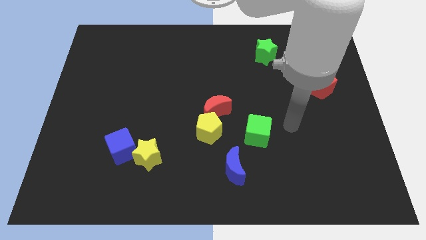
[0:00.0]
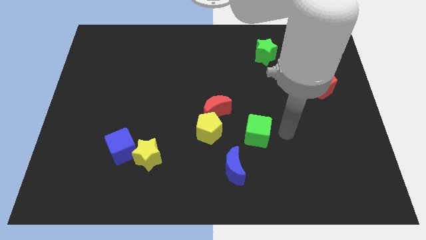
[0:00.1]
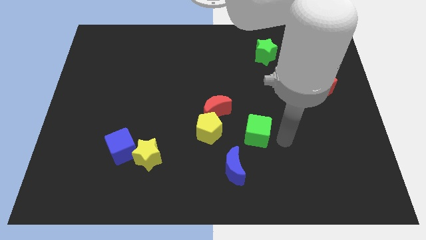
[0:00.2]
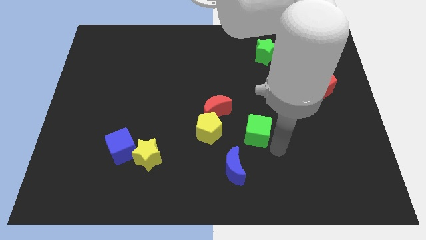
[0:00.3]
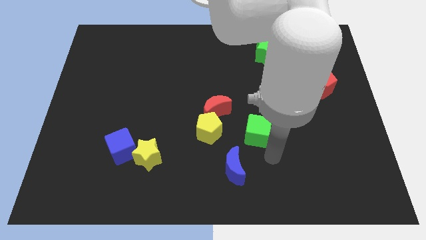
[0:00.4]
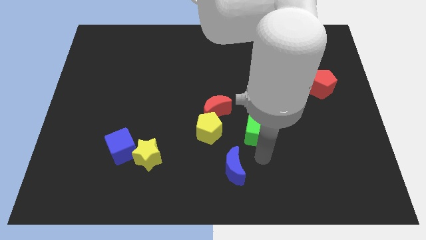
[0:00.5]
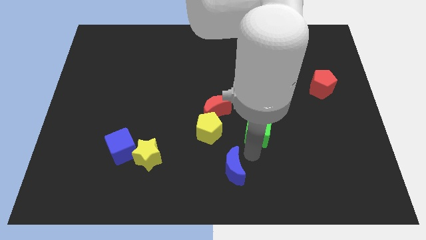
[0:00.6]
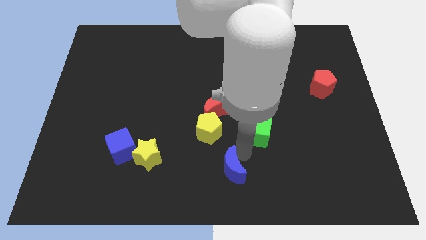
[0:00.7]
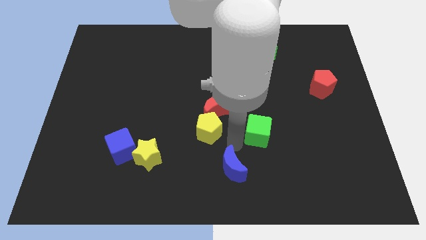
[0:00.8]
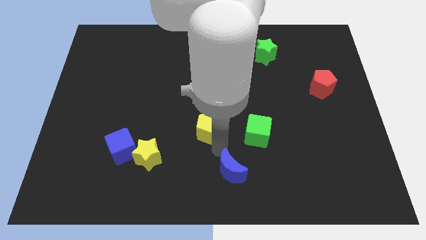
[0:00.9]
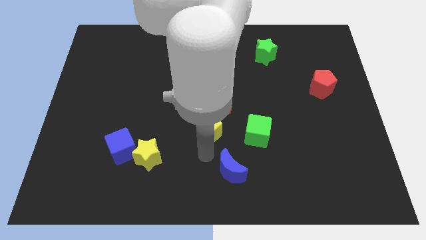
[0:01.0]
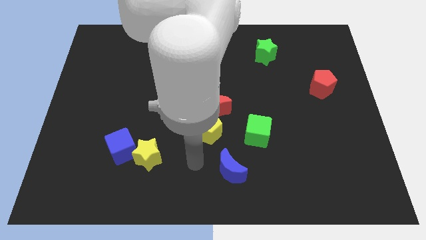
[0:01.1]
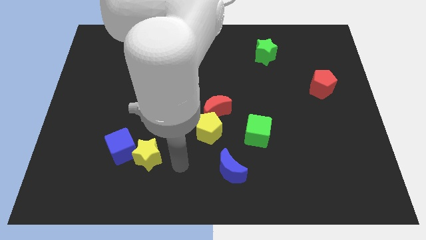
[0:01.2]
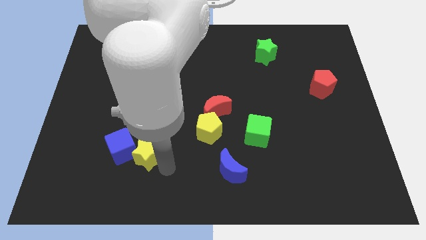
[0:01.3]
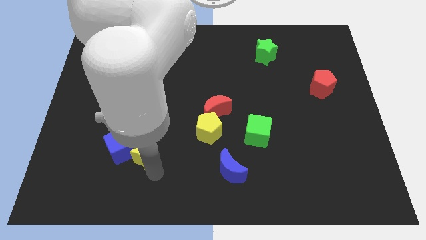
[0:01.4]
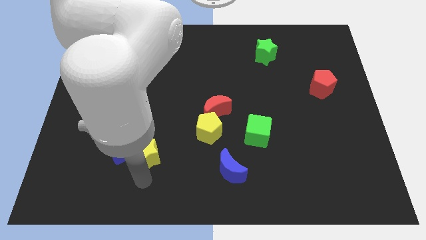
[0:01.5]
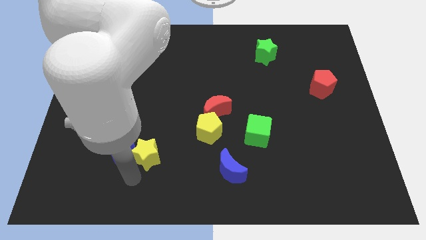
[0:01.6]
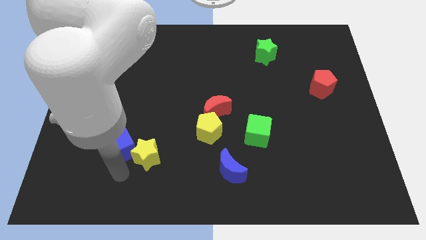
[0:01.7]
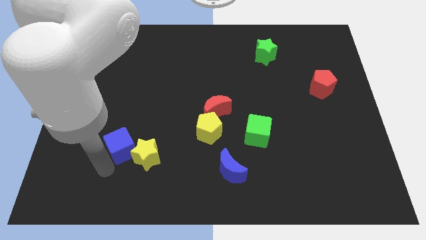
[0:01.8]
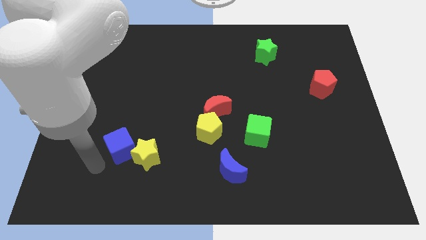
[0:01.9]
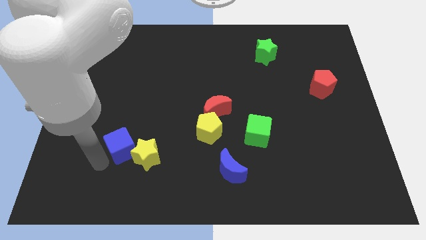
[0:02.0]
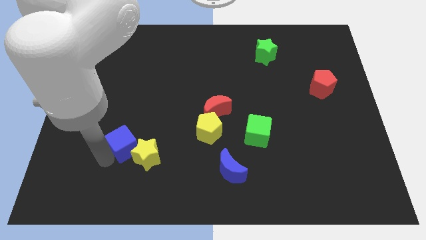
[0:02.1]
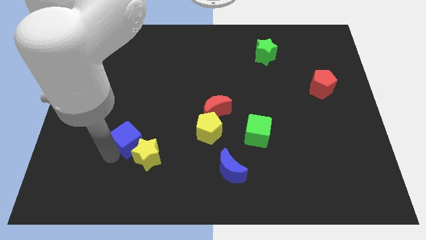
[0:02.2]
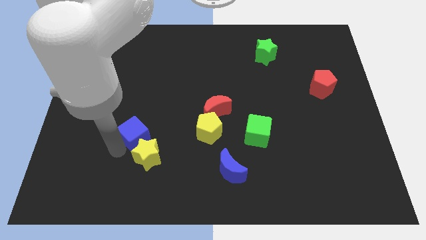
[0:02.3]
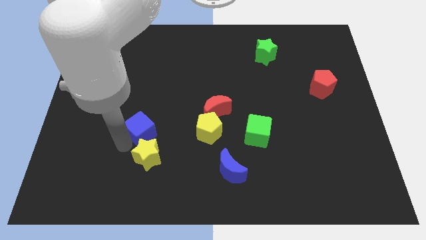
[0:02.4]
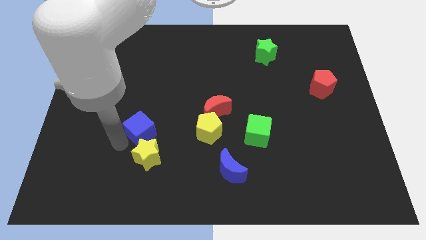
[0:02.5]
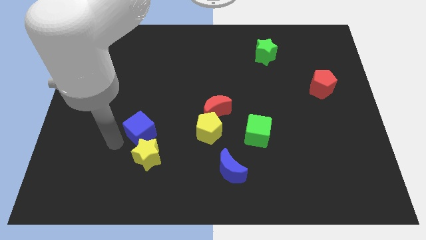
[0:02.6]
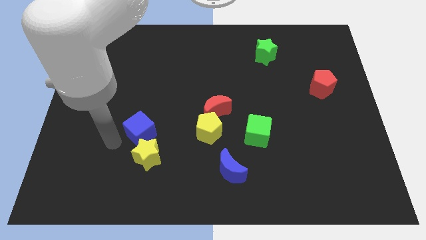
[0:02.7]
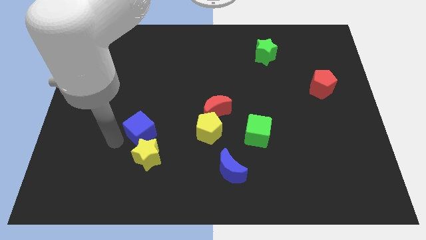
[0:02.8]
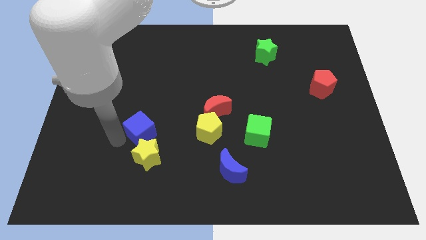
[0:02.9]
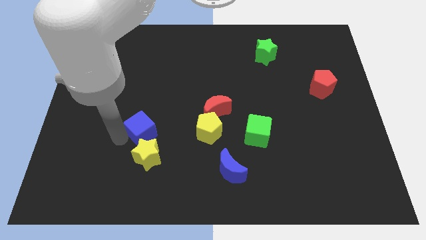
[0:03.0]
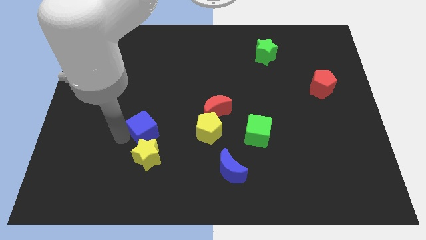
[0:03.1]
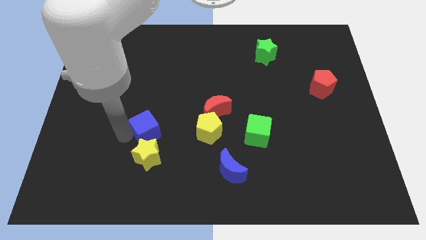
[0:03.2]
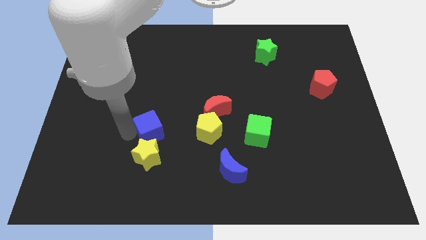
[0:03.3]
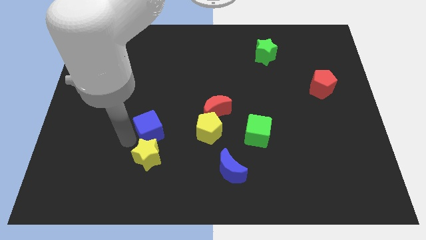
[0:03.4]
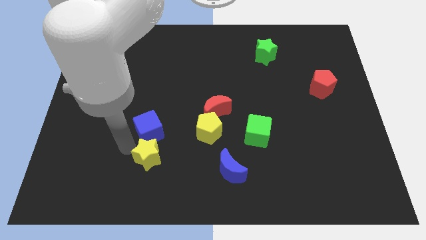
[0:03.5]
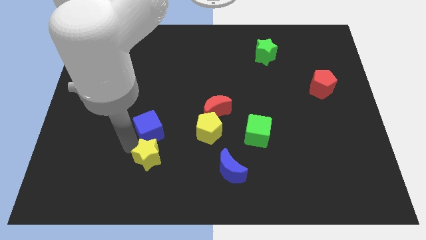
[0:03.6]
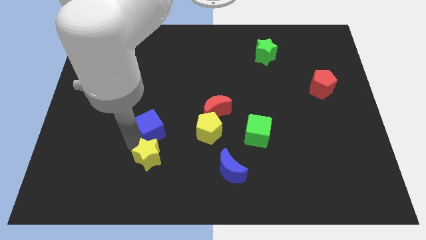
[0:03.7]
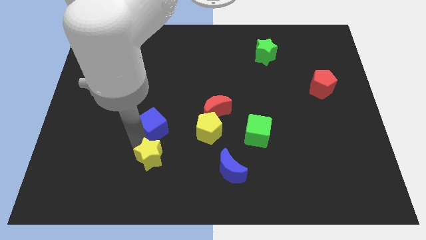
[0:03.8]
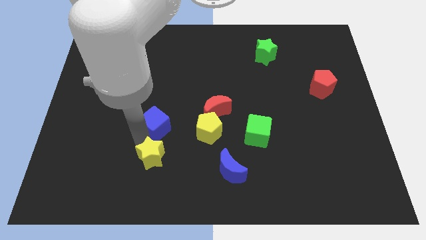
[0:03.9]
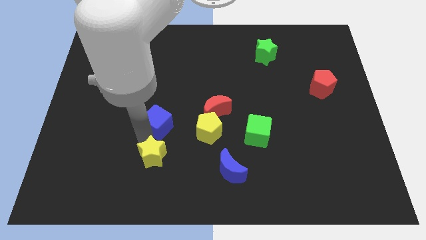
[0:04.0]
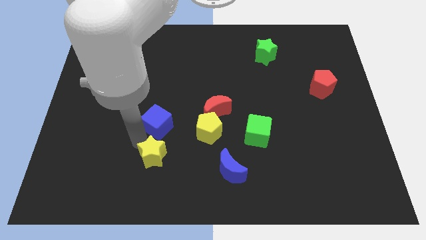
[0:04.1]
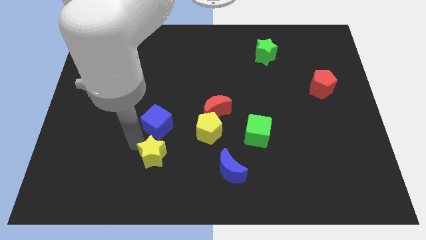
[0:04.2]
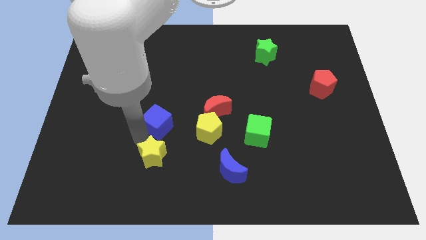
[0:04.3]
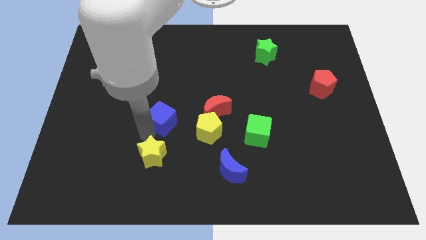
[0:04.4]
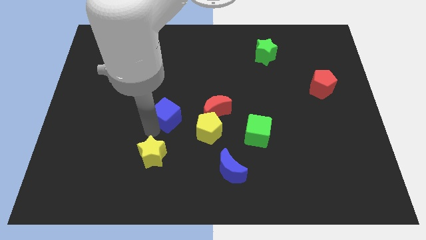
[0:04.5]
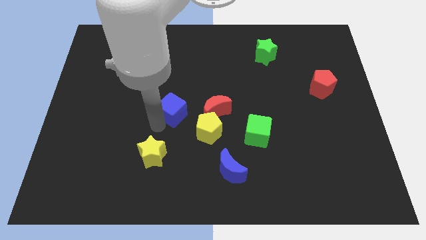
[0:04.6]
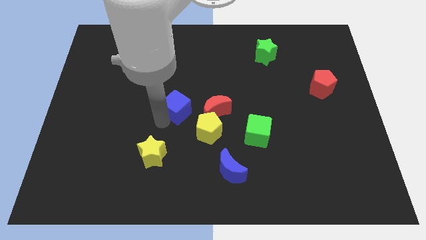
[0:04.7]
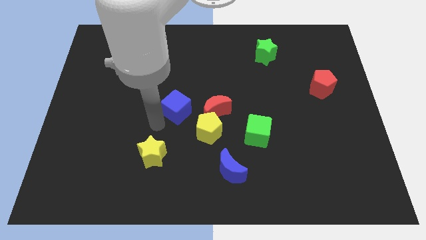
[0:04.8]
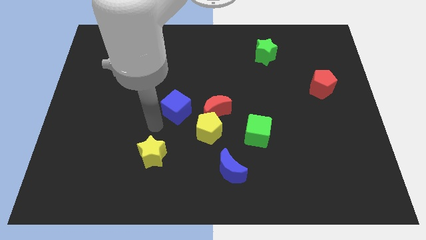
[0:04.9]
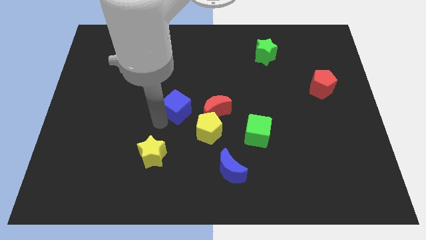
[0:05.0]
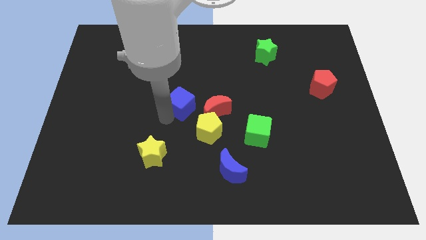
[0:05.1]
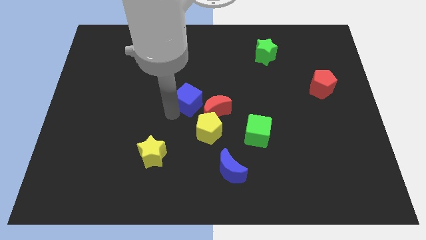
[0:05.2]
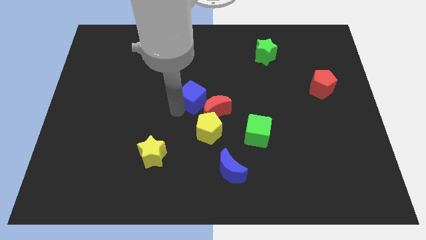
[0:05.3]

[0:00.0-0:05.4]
slide the blue cube up and to the right

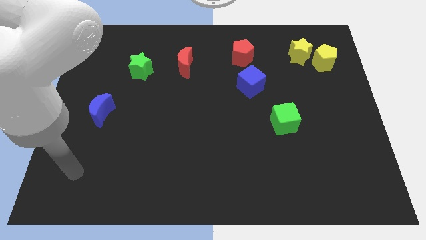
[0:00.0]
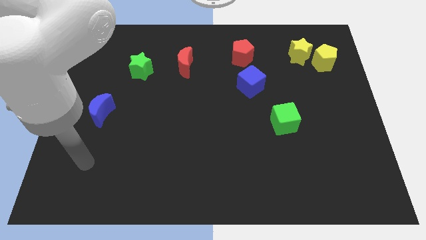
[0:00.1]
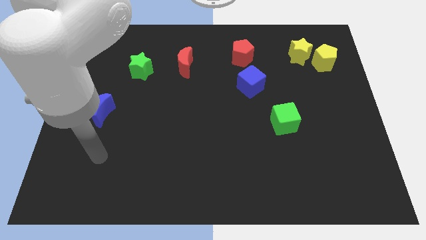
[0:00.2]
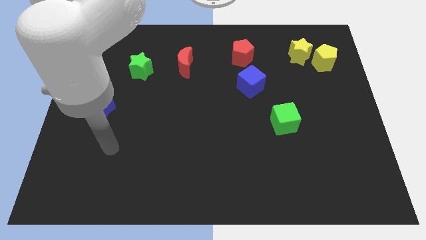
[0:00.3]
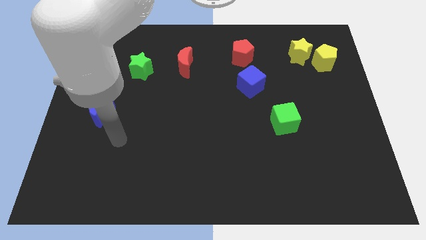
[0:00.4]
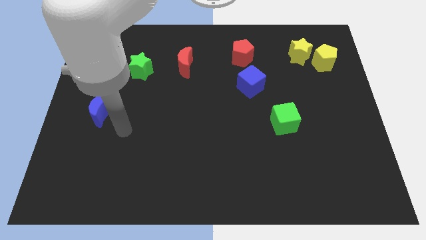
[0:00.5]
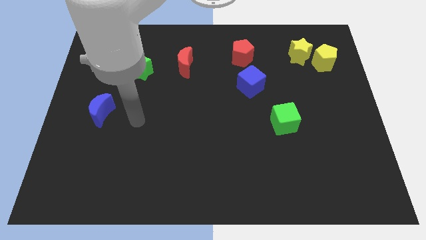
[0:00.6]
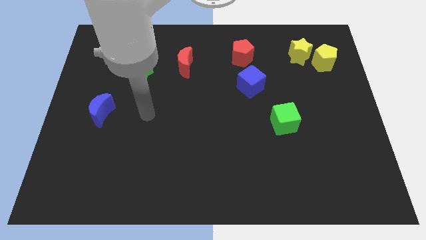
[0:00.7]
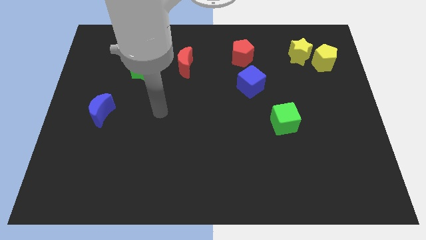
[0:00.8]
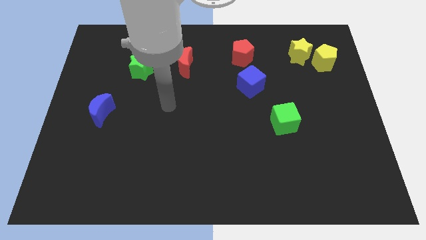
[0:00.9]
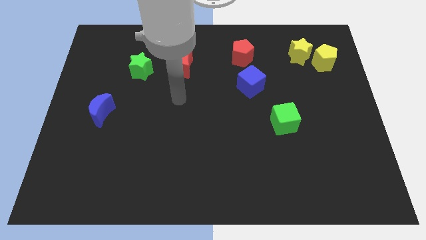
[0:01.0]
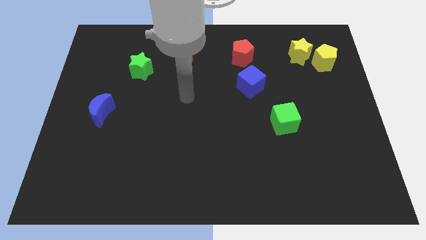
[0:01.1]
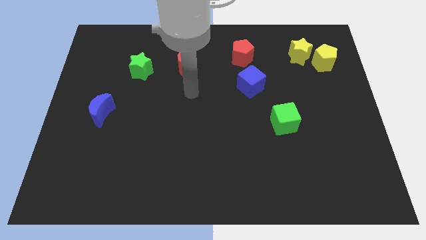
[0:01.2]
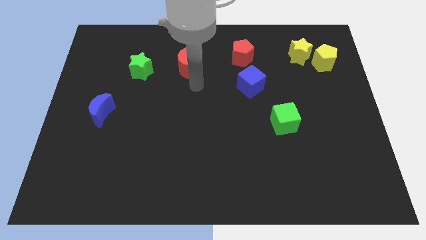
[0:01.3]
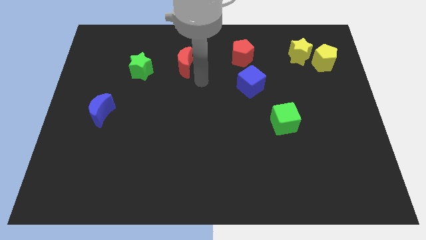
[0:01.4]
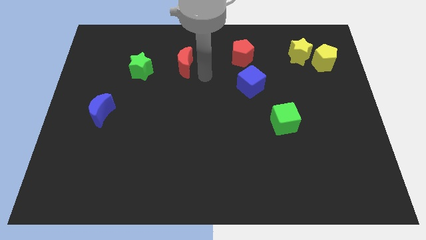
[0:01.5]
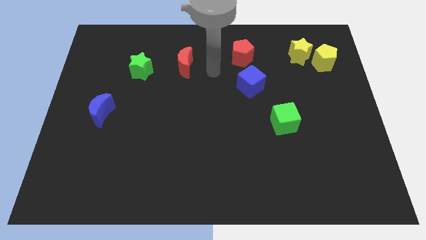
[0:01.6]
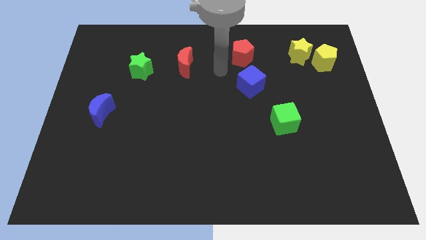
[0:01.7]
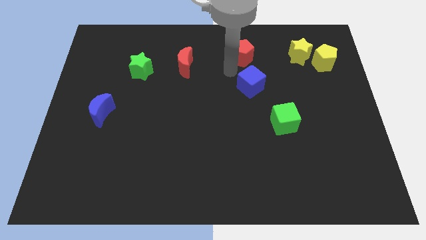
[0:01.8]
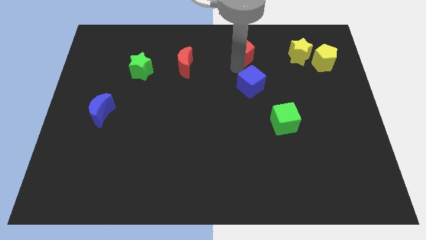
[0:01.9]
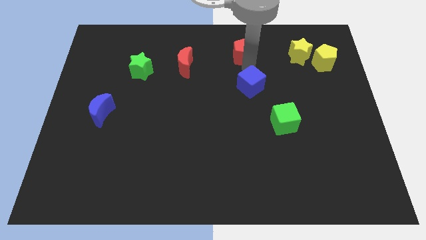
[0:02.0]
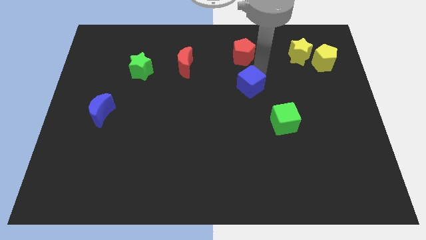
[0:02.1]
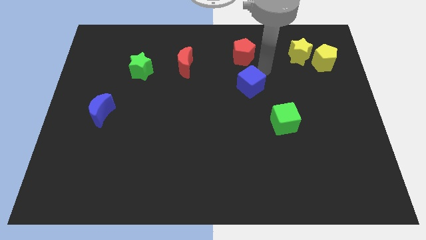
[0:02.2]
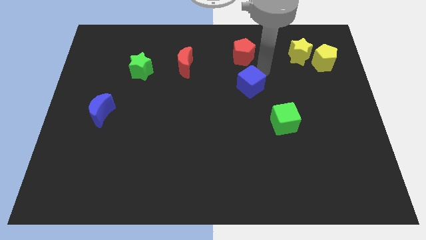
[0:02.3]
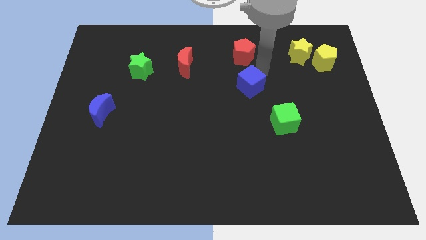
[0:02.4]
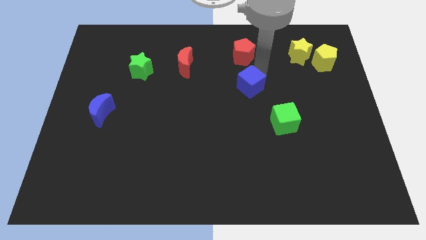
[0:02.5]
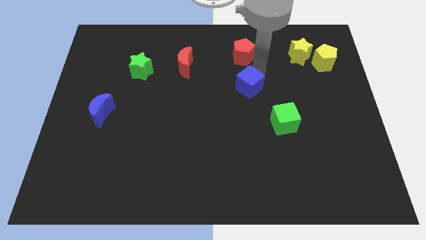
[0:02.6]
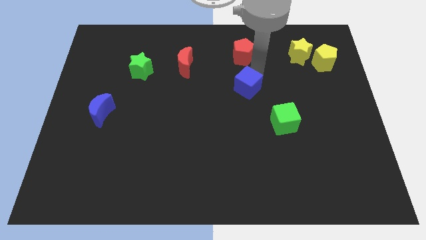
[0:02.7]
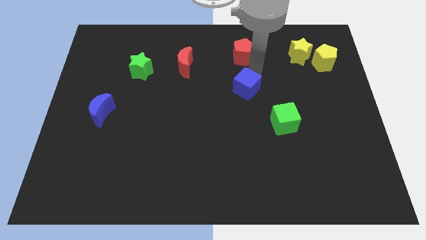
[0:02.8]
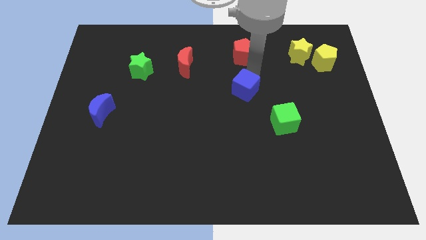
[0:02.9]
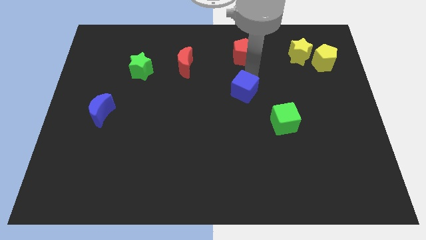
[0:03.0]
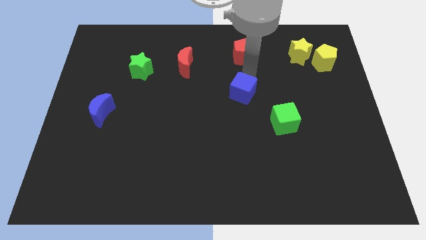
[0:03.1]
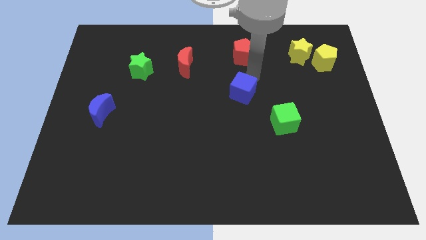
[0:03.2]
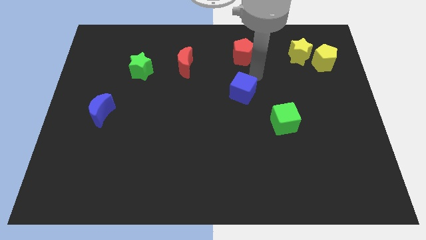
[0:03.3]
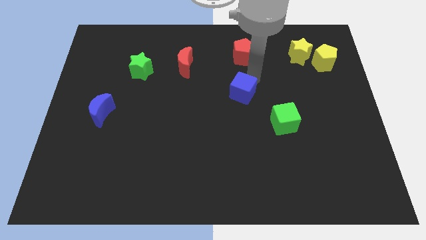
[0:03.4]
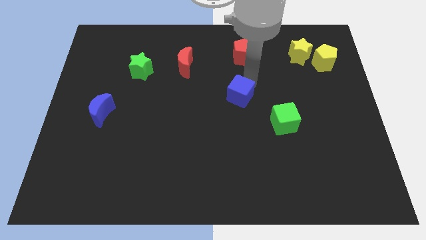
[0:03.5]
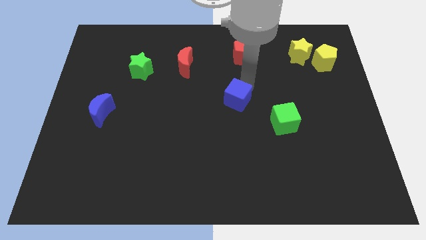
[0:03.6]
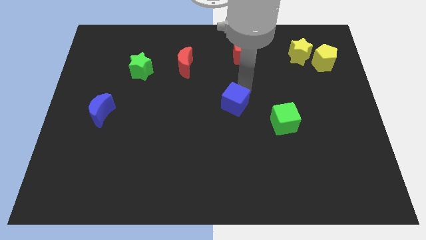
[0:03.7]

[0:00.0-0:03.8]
slightly move the blue cube downwards and then left
